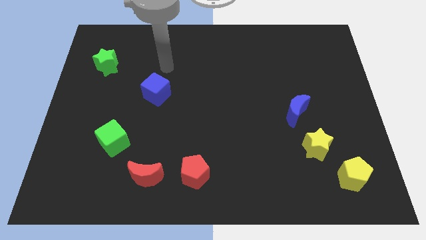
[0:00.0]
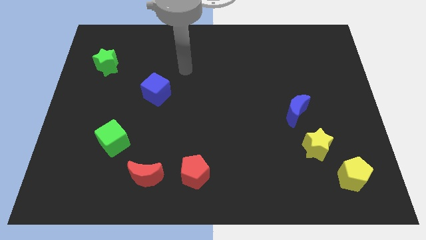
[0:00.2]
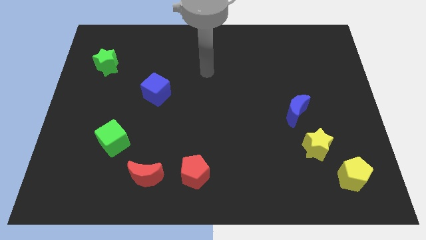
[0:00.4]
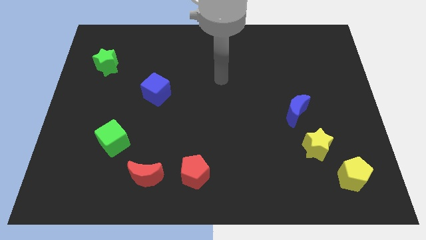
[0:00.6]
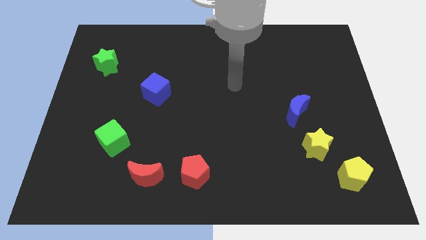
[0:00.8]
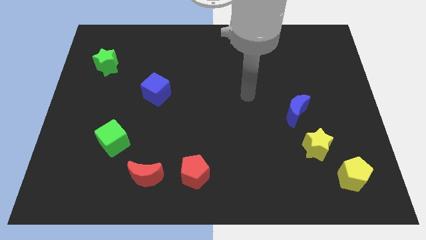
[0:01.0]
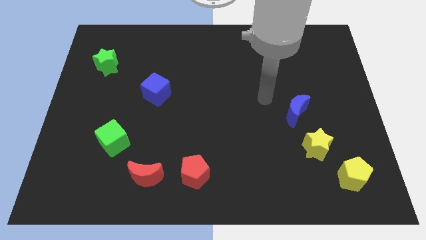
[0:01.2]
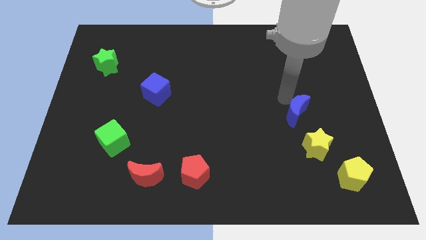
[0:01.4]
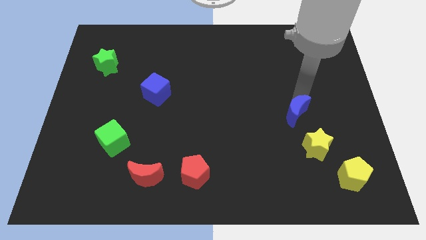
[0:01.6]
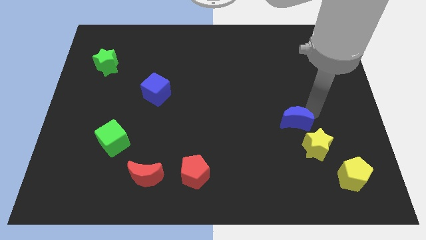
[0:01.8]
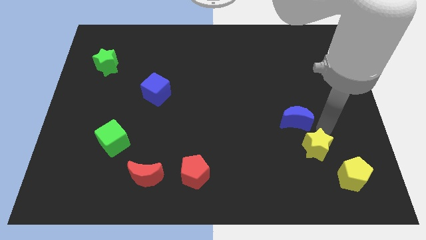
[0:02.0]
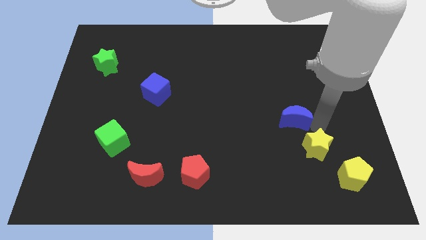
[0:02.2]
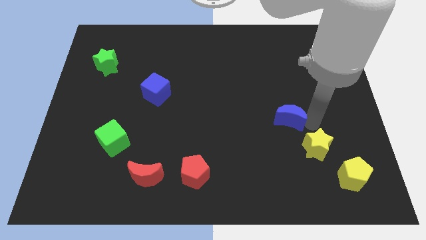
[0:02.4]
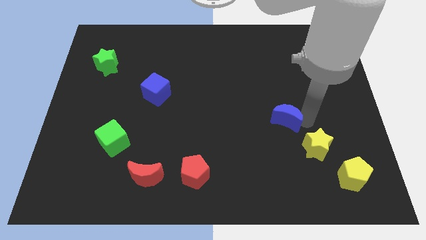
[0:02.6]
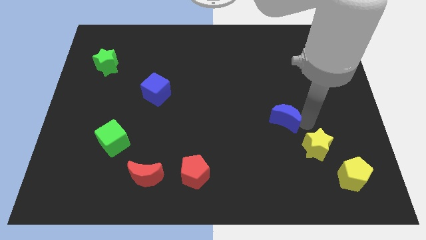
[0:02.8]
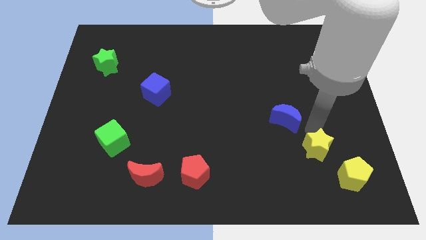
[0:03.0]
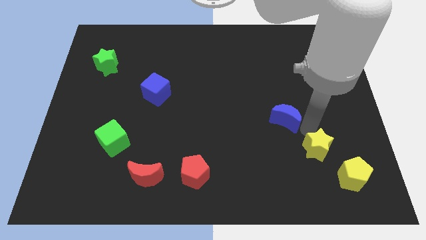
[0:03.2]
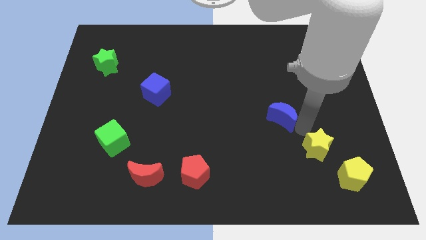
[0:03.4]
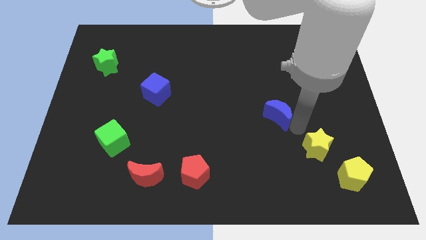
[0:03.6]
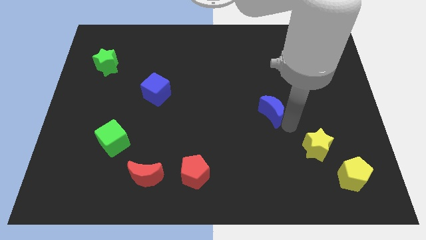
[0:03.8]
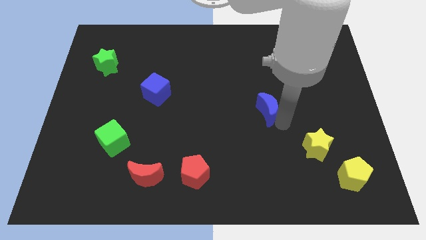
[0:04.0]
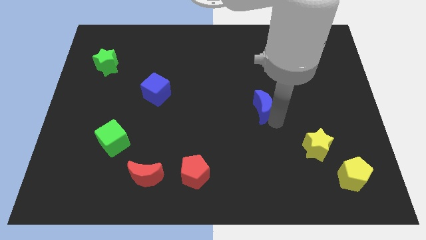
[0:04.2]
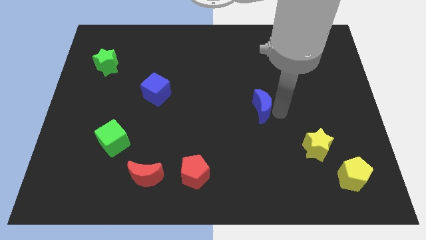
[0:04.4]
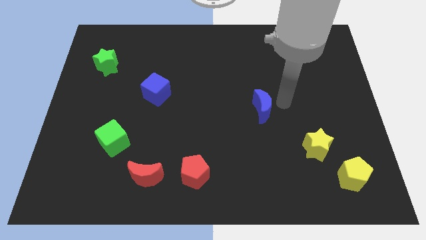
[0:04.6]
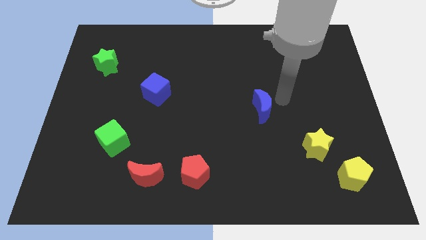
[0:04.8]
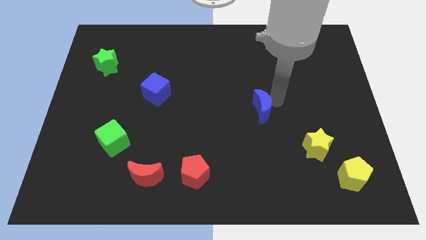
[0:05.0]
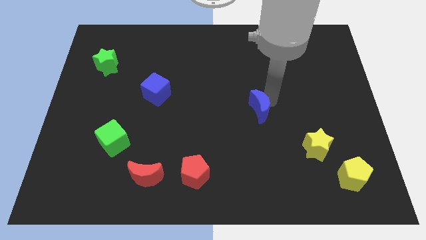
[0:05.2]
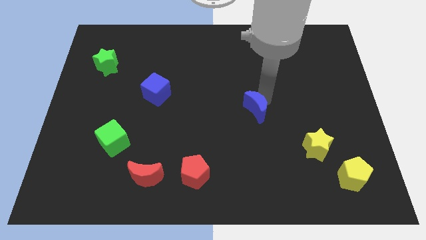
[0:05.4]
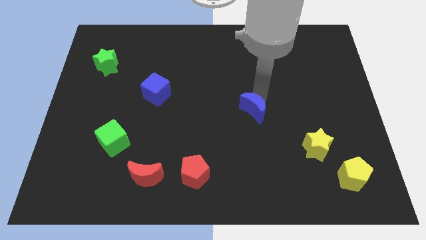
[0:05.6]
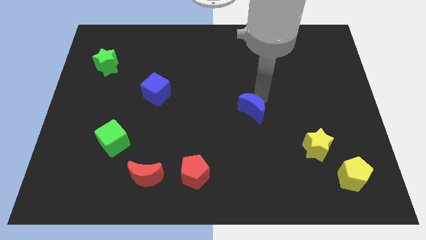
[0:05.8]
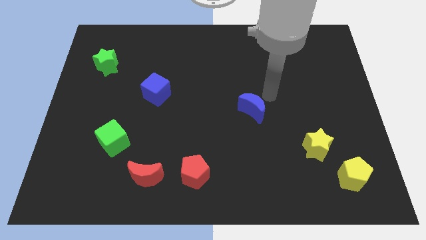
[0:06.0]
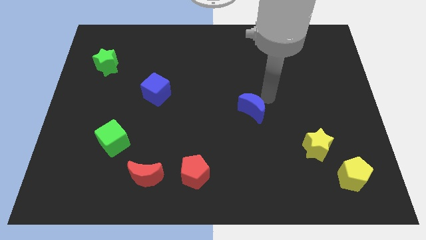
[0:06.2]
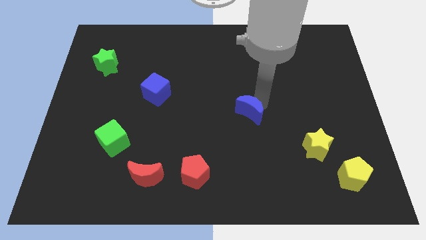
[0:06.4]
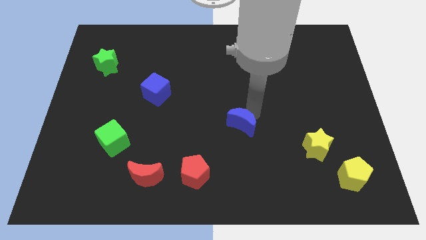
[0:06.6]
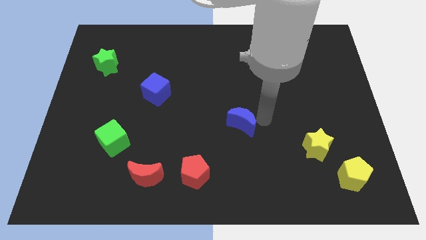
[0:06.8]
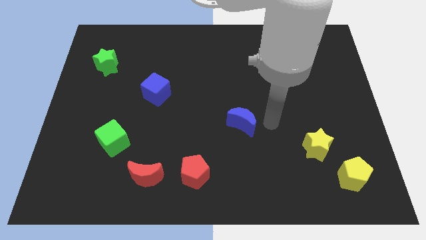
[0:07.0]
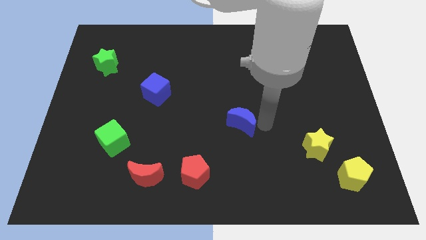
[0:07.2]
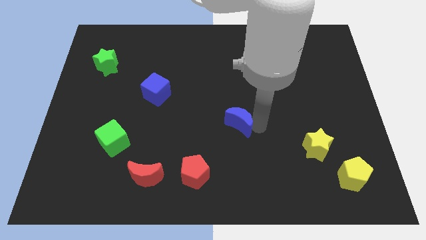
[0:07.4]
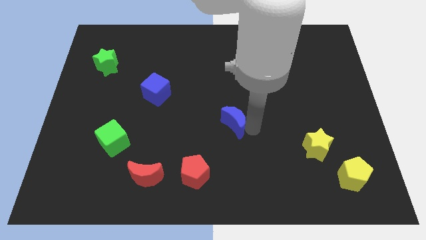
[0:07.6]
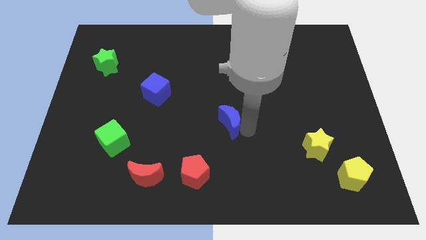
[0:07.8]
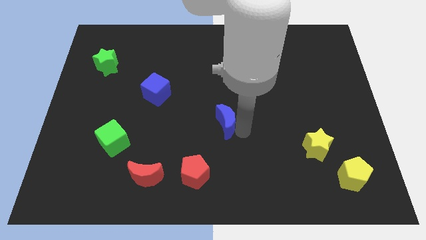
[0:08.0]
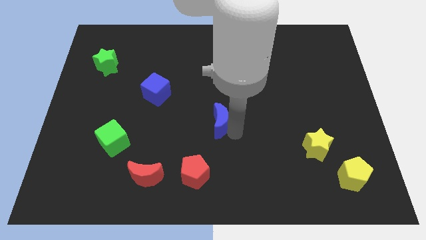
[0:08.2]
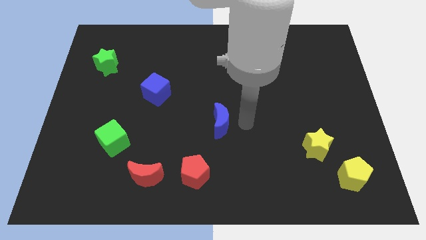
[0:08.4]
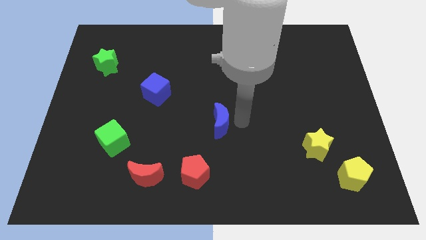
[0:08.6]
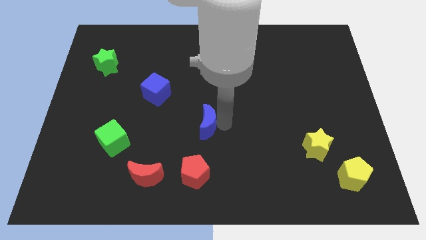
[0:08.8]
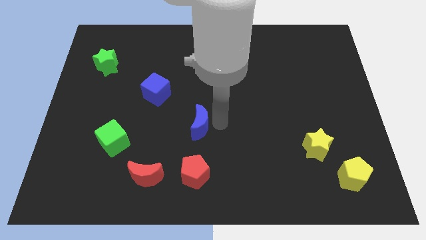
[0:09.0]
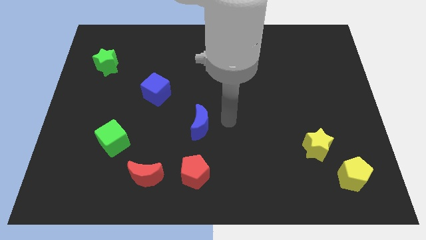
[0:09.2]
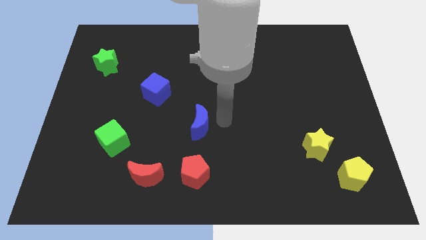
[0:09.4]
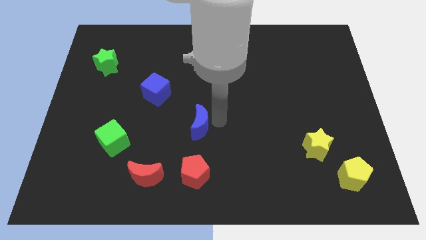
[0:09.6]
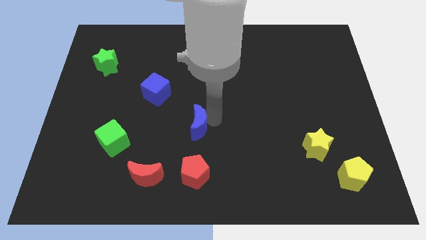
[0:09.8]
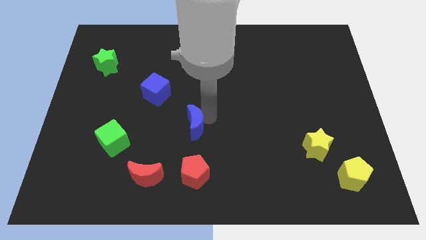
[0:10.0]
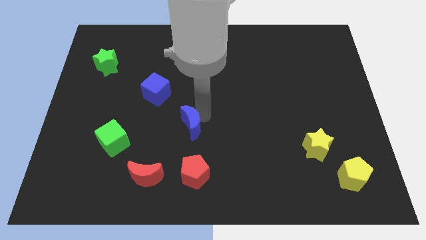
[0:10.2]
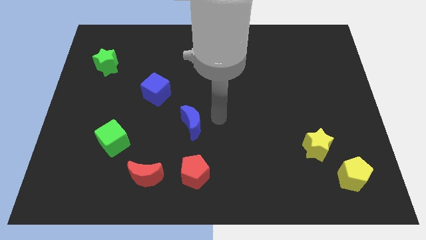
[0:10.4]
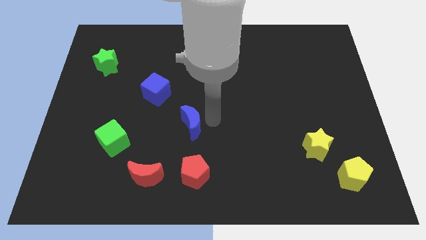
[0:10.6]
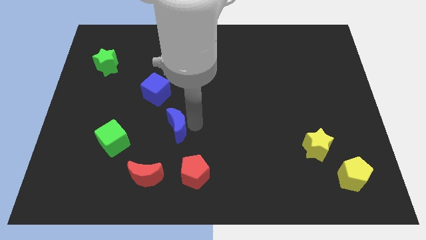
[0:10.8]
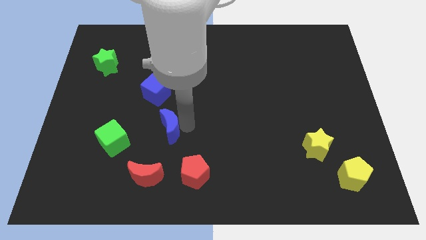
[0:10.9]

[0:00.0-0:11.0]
move the blue moon above the red moon

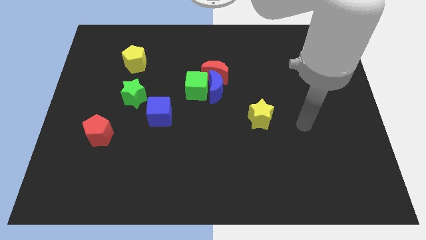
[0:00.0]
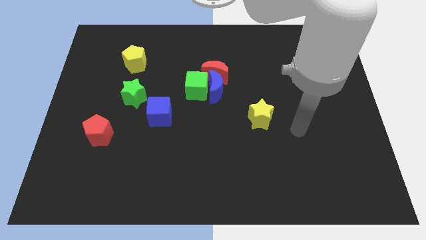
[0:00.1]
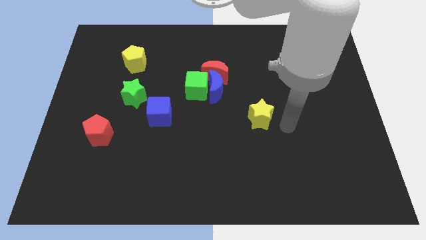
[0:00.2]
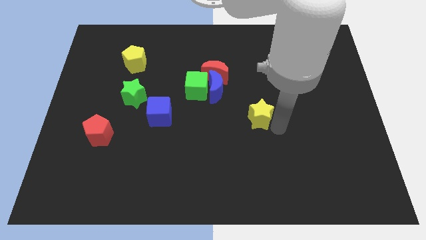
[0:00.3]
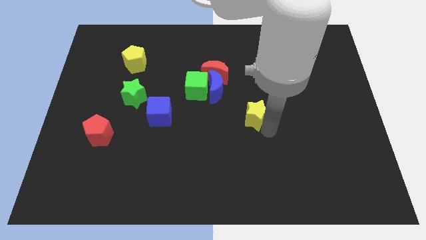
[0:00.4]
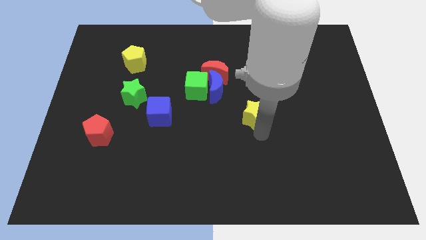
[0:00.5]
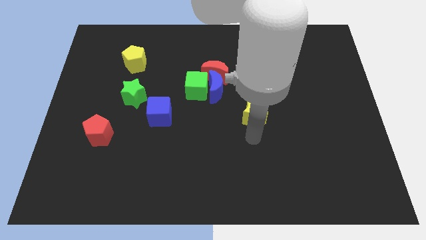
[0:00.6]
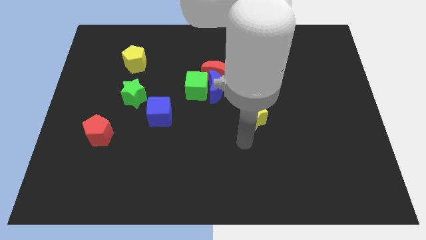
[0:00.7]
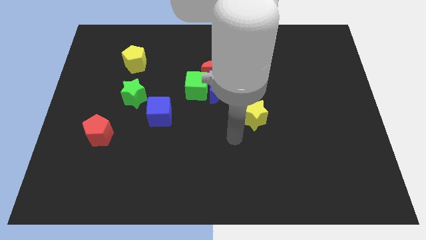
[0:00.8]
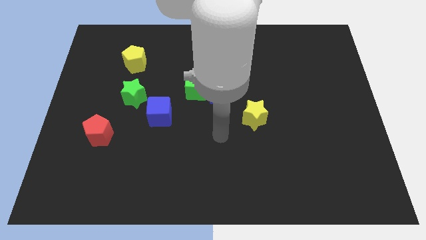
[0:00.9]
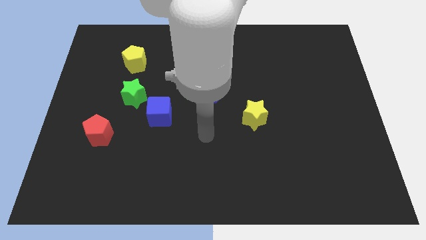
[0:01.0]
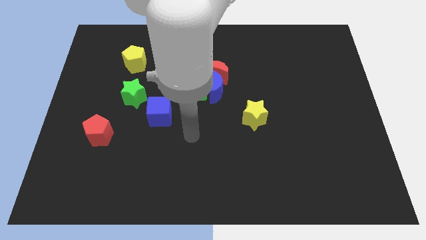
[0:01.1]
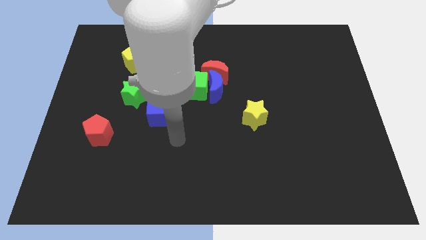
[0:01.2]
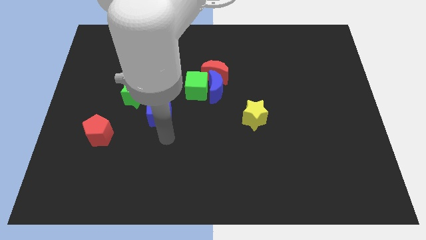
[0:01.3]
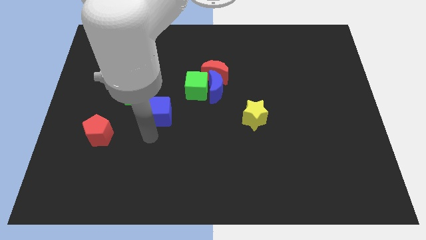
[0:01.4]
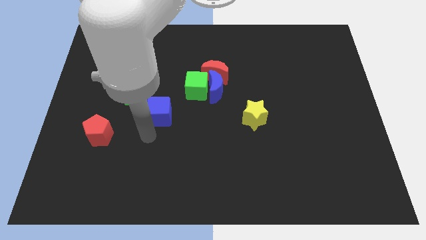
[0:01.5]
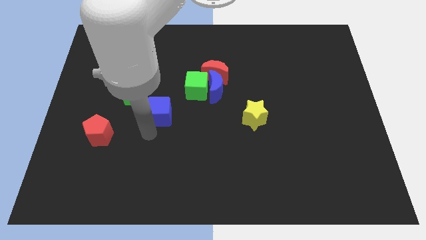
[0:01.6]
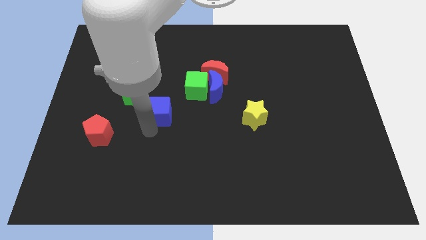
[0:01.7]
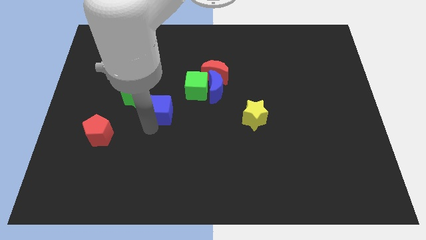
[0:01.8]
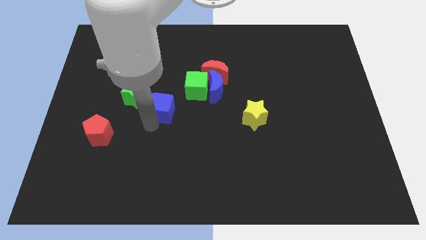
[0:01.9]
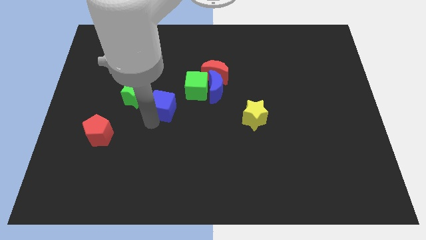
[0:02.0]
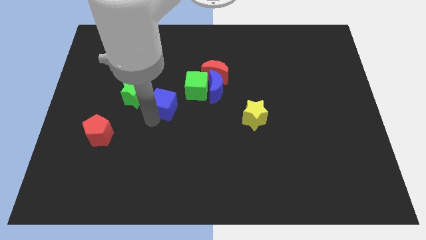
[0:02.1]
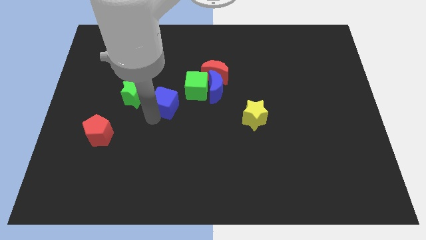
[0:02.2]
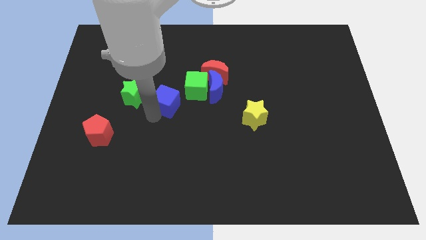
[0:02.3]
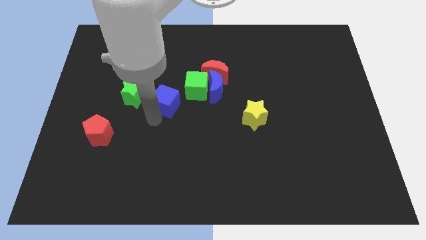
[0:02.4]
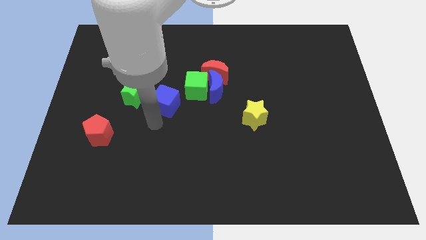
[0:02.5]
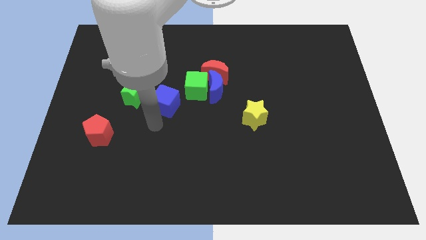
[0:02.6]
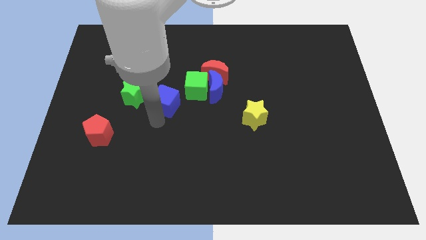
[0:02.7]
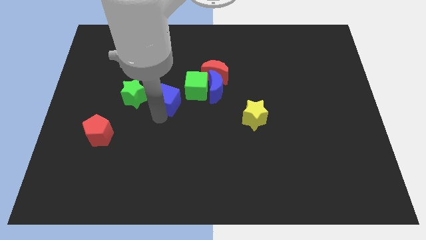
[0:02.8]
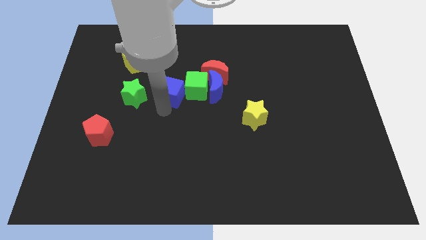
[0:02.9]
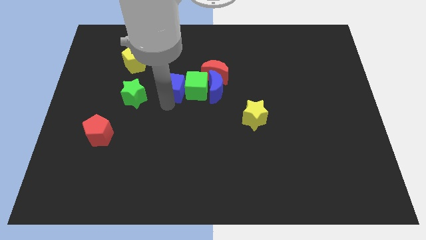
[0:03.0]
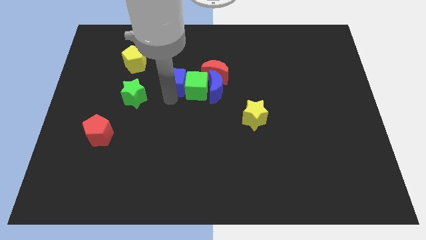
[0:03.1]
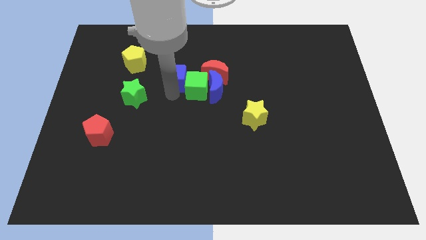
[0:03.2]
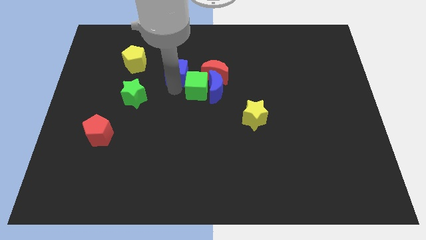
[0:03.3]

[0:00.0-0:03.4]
put the blue cube to the right side of the yellow pentagon
